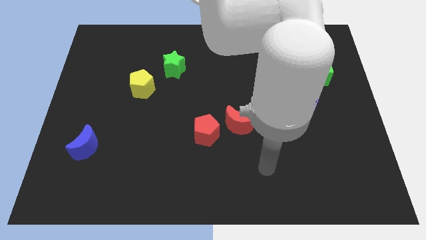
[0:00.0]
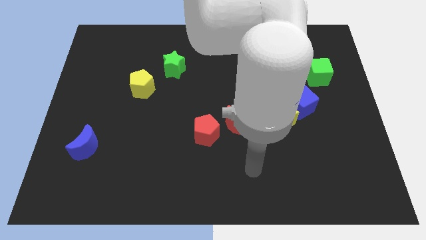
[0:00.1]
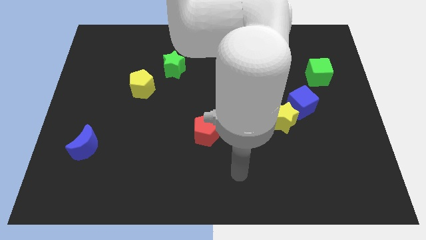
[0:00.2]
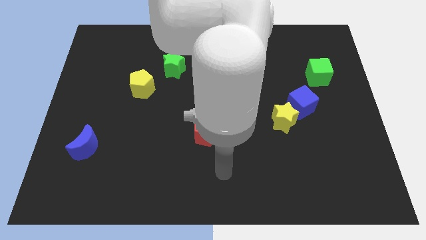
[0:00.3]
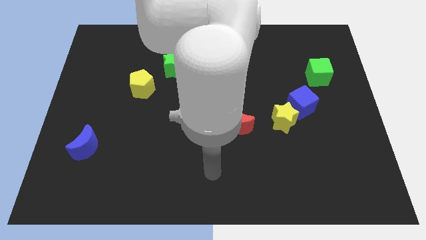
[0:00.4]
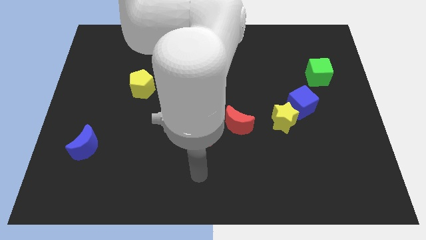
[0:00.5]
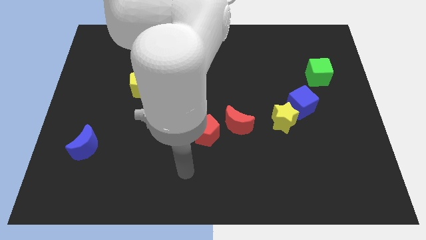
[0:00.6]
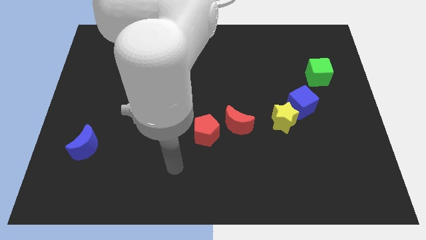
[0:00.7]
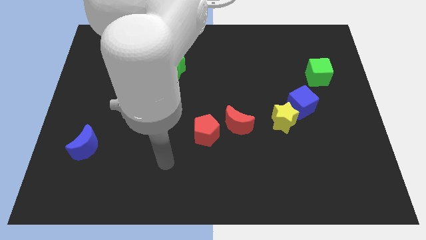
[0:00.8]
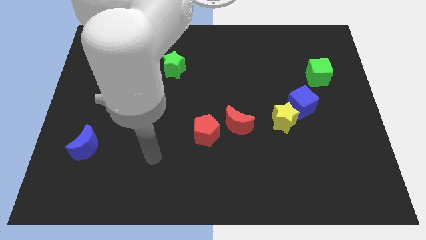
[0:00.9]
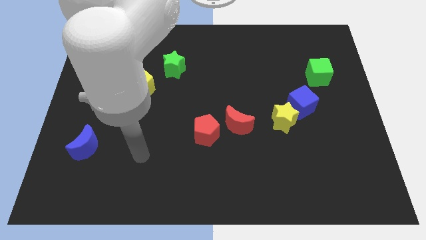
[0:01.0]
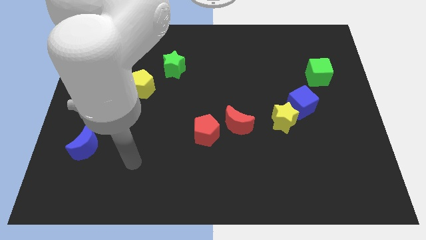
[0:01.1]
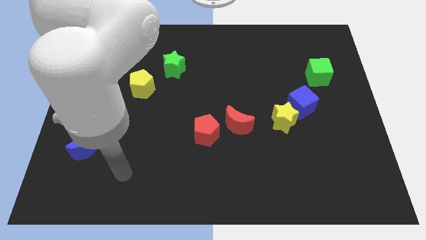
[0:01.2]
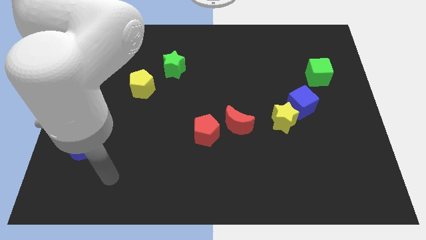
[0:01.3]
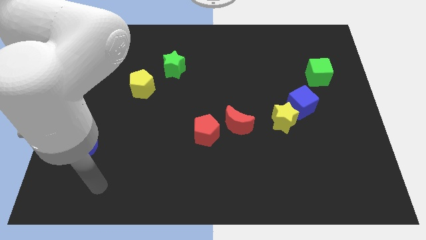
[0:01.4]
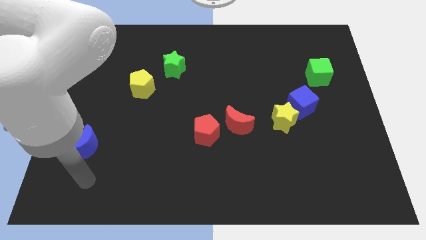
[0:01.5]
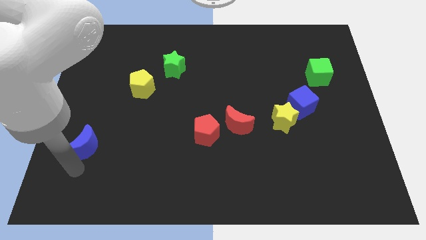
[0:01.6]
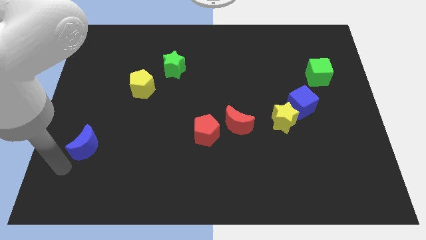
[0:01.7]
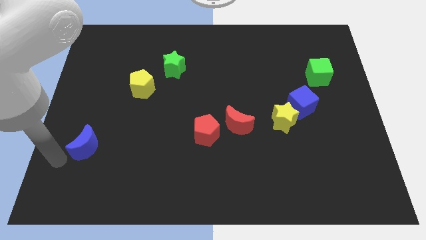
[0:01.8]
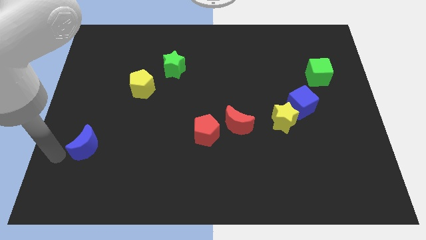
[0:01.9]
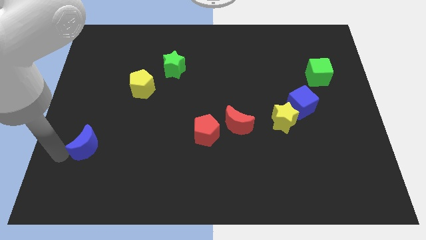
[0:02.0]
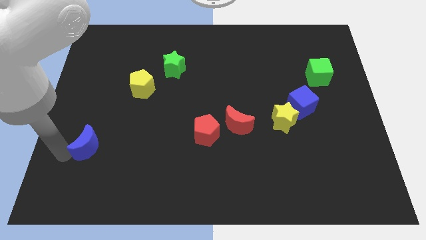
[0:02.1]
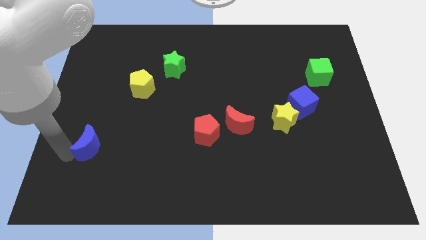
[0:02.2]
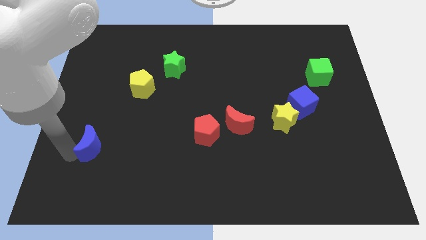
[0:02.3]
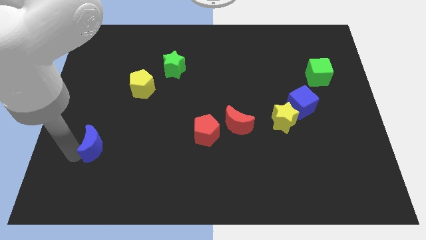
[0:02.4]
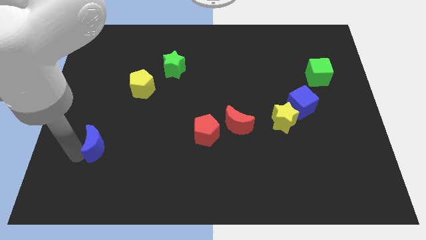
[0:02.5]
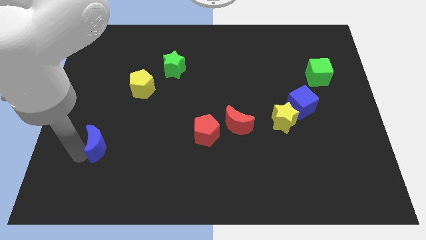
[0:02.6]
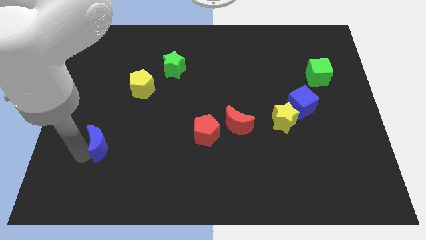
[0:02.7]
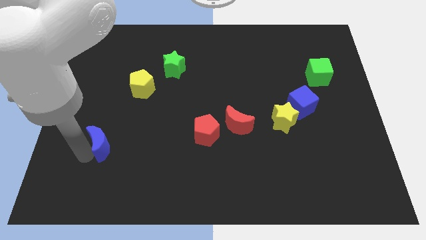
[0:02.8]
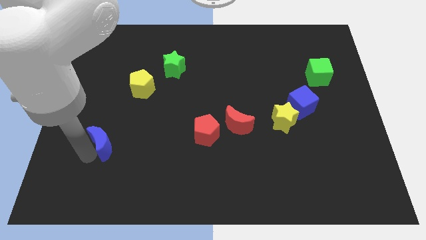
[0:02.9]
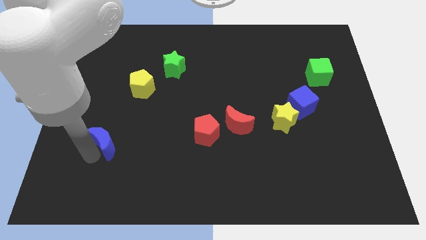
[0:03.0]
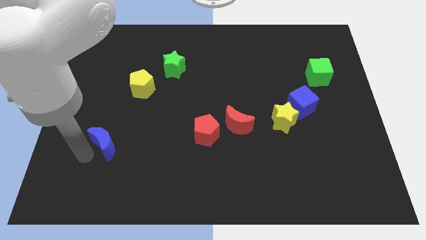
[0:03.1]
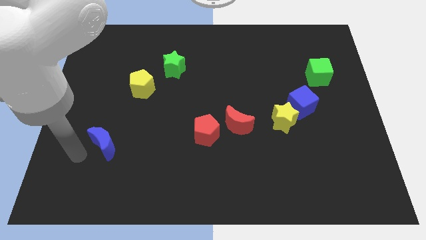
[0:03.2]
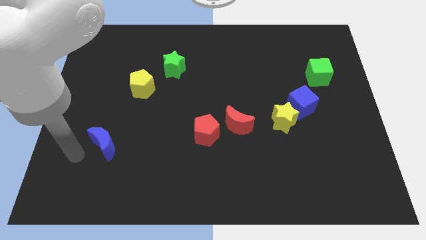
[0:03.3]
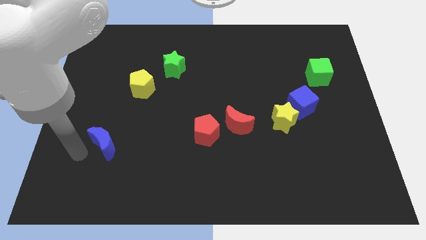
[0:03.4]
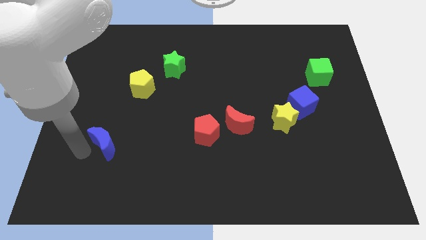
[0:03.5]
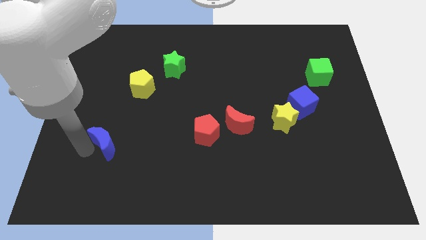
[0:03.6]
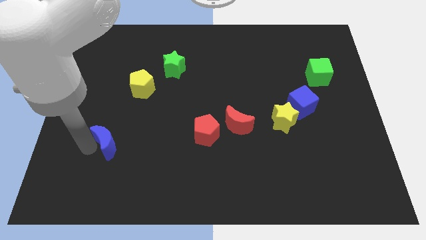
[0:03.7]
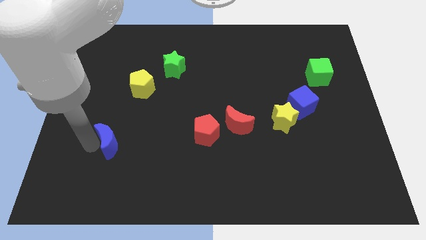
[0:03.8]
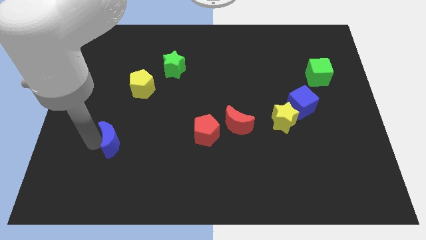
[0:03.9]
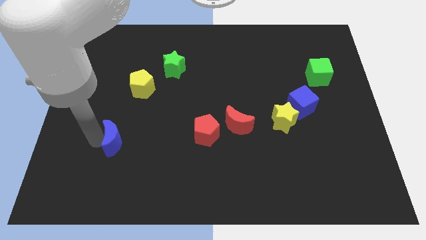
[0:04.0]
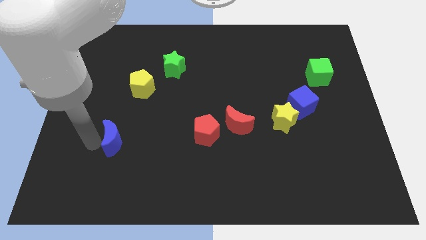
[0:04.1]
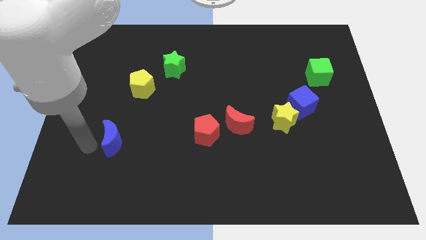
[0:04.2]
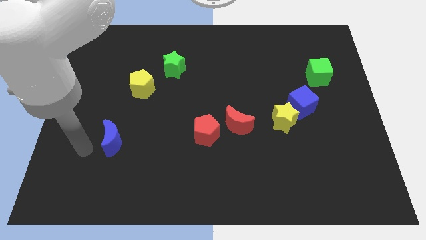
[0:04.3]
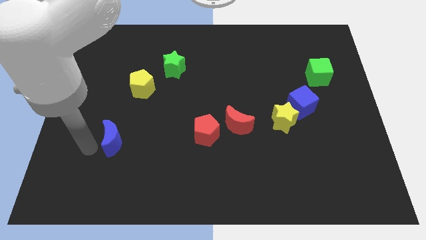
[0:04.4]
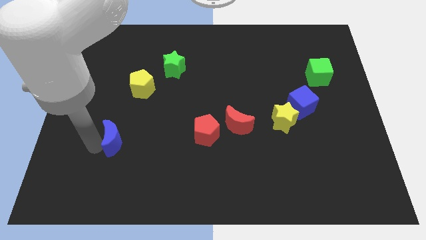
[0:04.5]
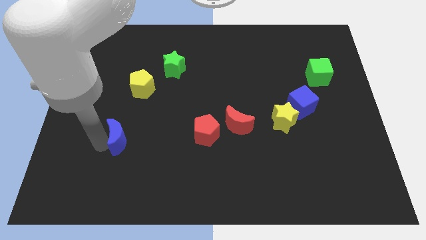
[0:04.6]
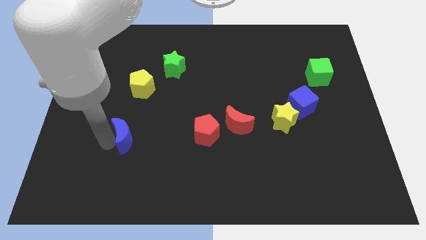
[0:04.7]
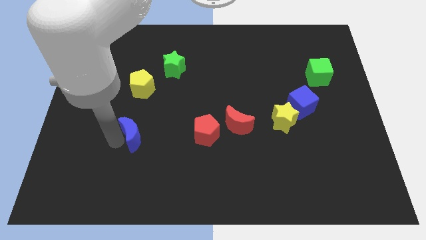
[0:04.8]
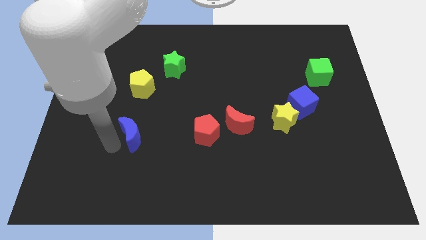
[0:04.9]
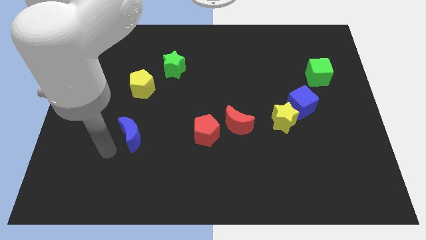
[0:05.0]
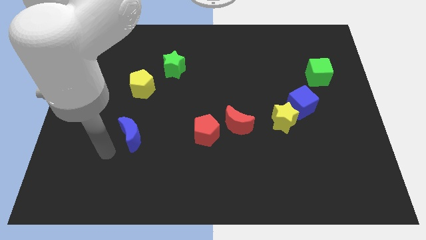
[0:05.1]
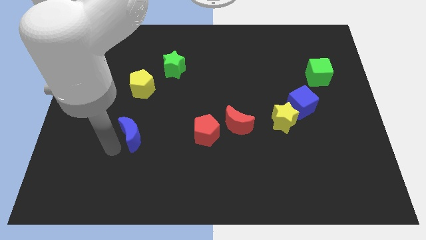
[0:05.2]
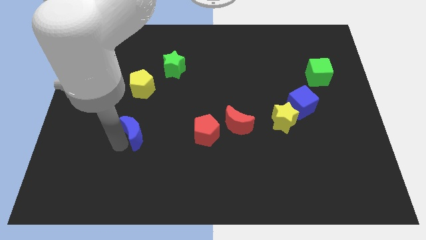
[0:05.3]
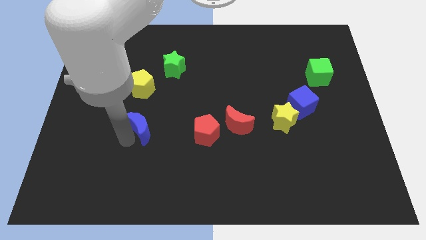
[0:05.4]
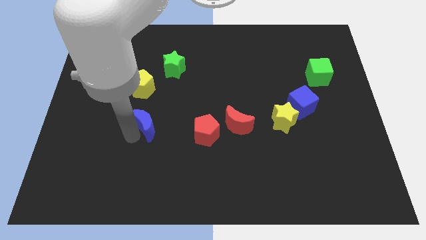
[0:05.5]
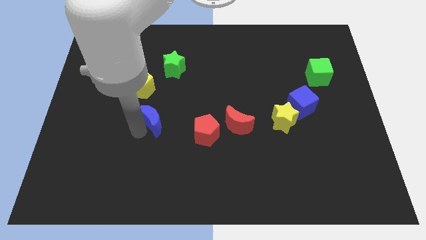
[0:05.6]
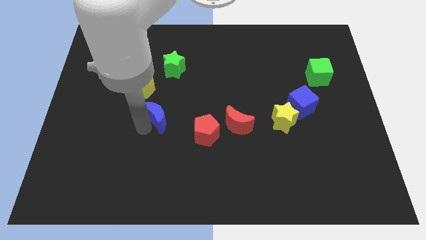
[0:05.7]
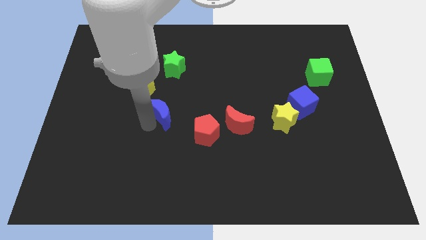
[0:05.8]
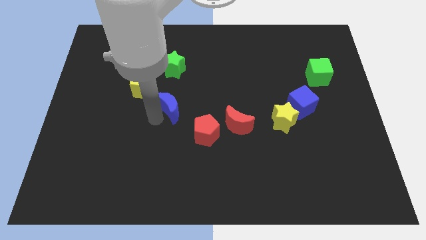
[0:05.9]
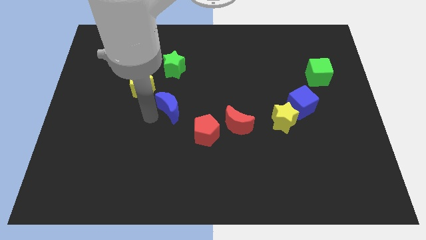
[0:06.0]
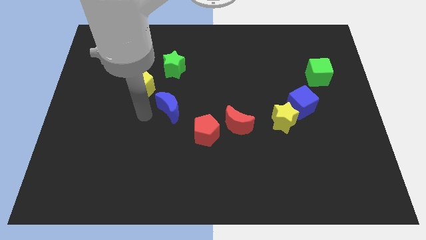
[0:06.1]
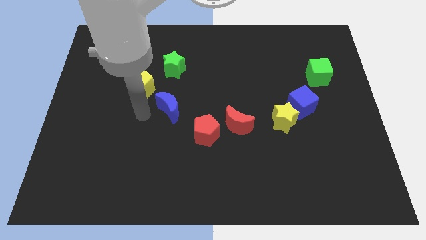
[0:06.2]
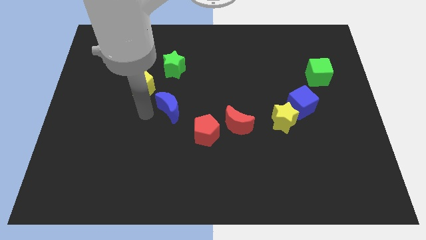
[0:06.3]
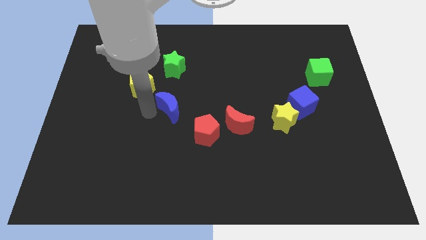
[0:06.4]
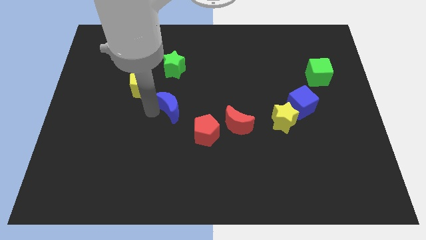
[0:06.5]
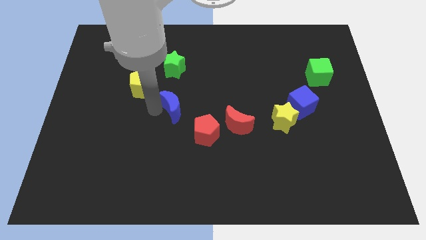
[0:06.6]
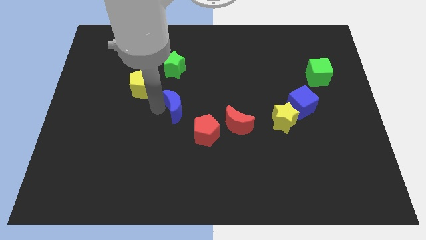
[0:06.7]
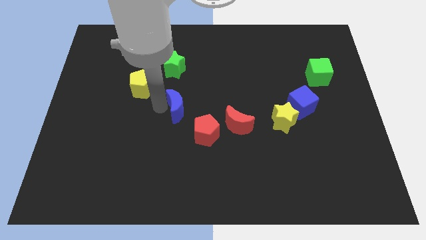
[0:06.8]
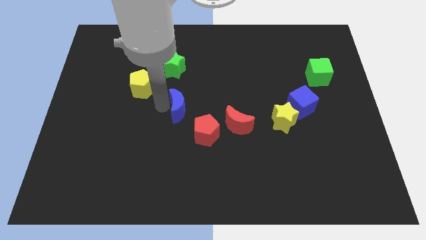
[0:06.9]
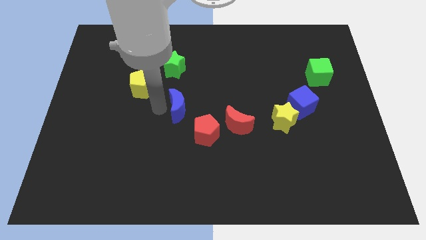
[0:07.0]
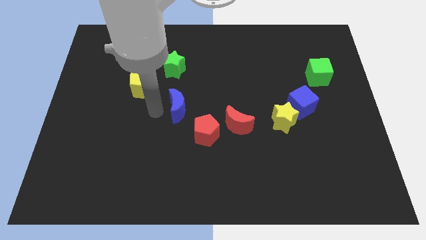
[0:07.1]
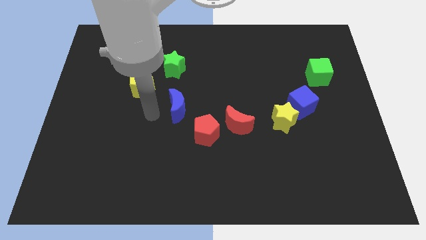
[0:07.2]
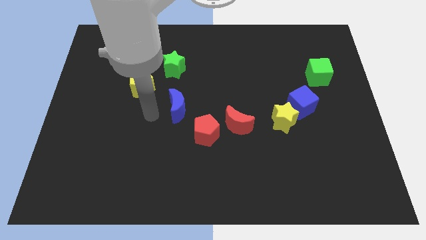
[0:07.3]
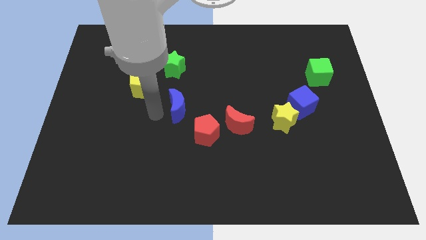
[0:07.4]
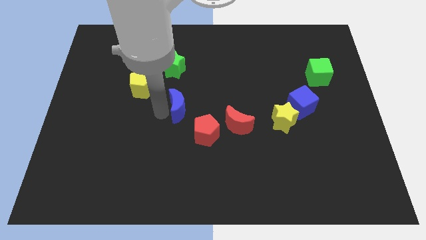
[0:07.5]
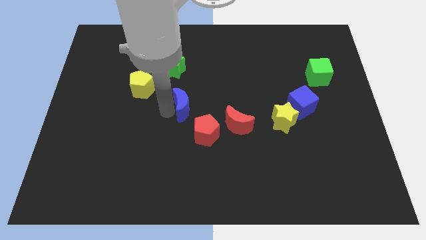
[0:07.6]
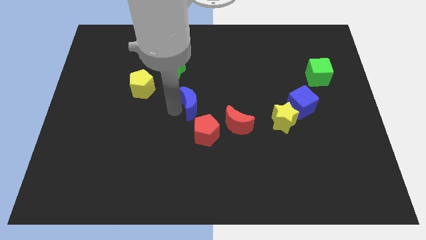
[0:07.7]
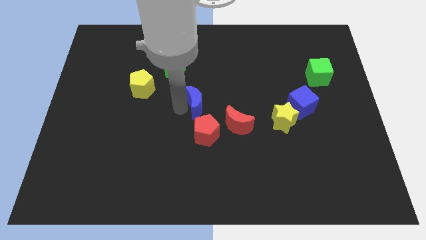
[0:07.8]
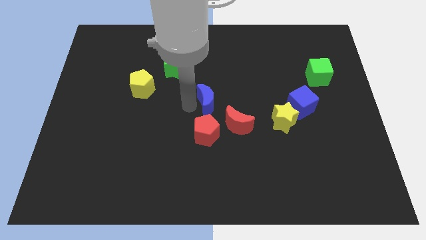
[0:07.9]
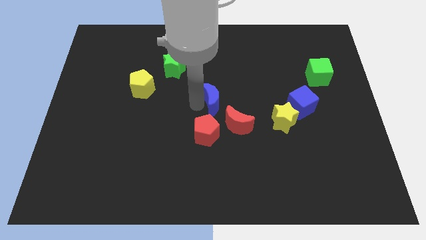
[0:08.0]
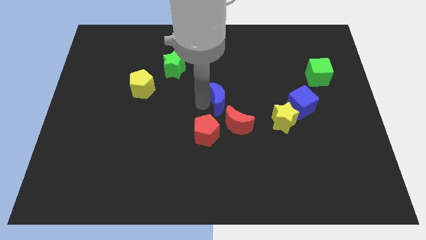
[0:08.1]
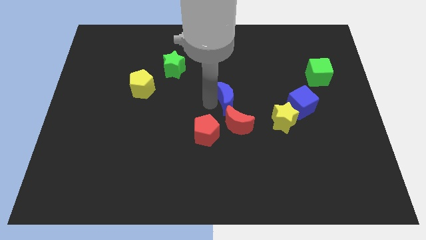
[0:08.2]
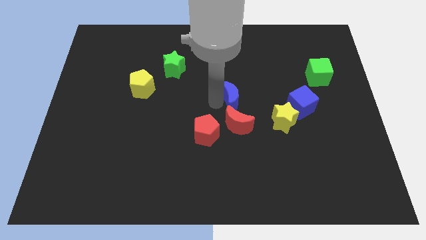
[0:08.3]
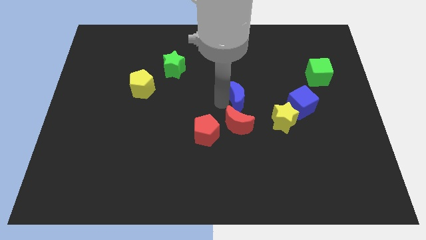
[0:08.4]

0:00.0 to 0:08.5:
slide the blue moon diagonally up and to the left of the yellow star
